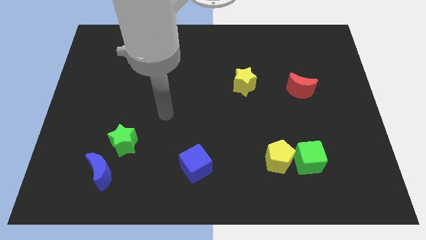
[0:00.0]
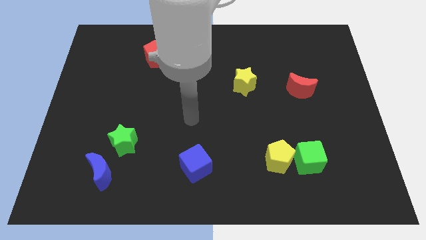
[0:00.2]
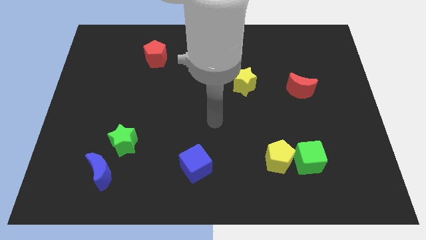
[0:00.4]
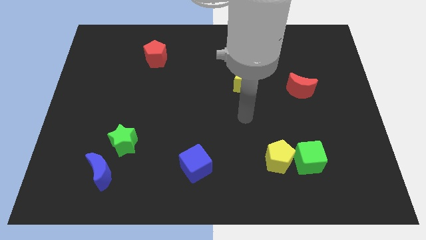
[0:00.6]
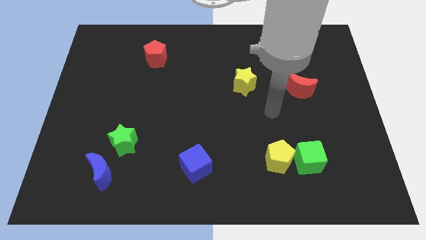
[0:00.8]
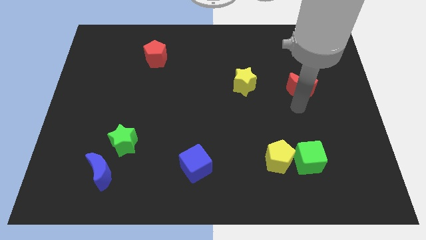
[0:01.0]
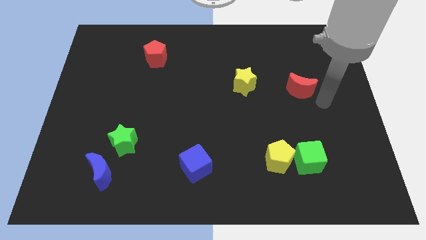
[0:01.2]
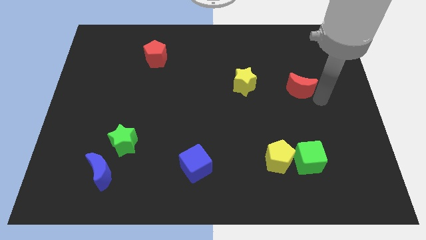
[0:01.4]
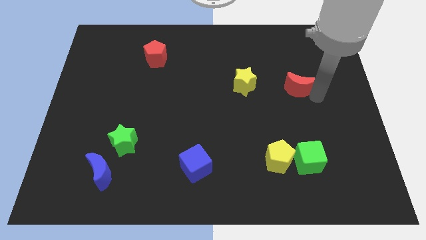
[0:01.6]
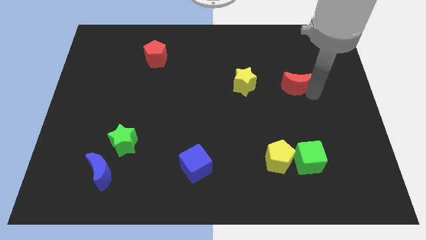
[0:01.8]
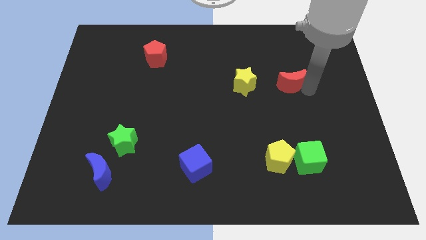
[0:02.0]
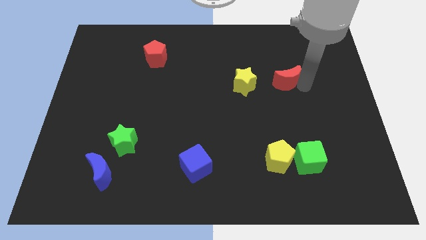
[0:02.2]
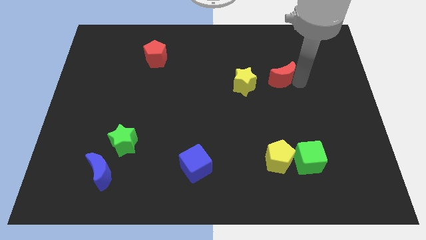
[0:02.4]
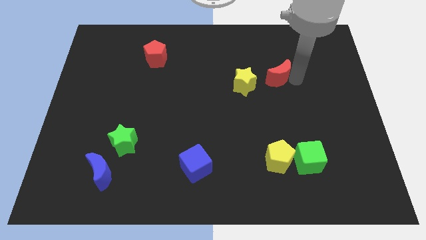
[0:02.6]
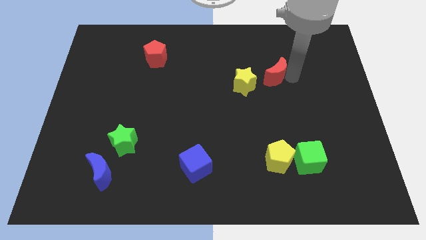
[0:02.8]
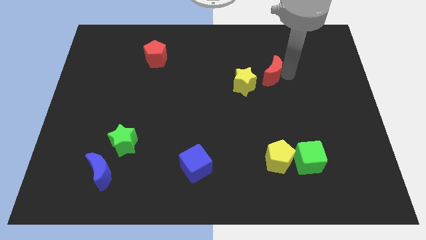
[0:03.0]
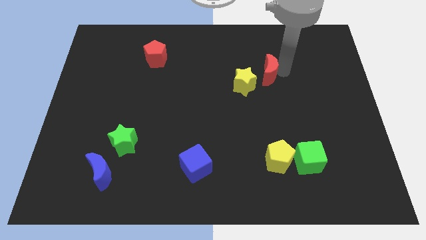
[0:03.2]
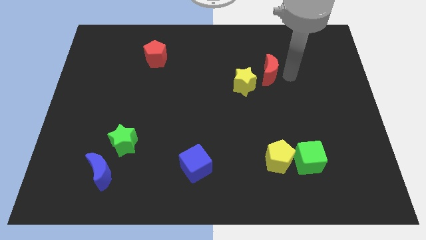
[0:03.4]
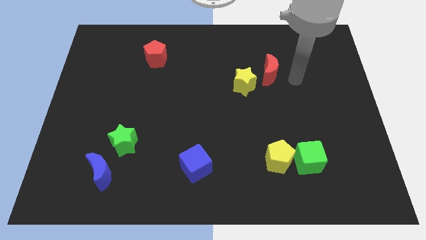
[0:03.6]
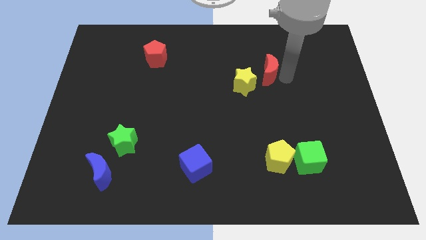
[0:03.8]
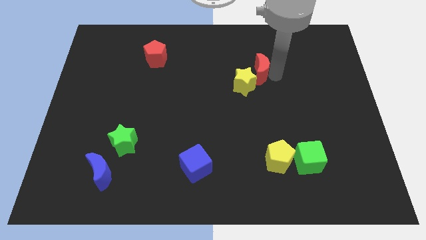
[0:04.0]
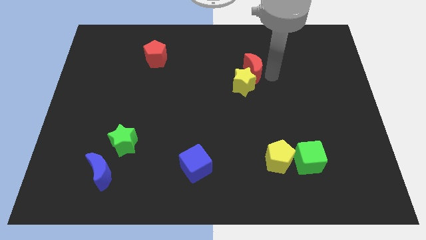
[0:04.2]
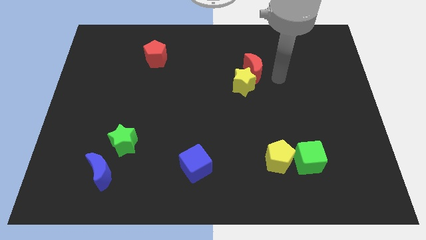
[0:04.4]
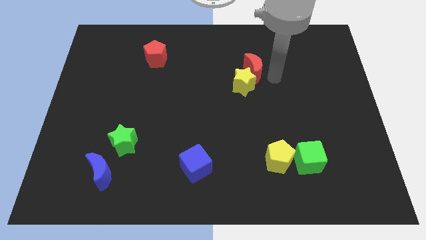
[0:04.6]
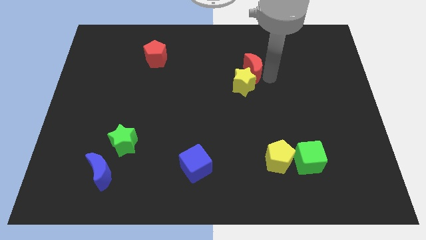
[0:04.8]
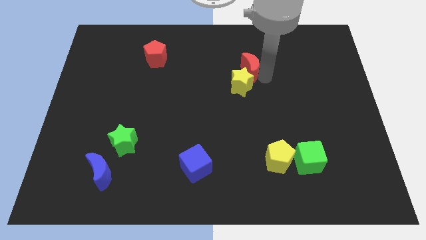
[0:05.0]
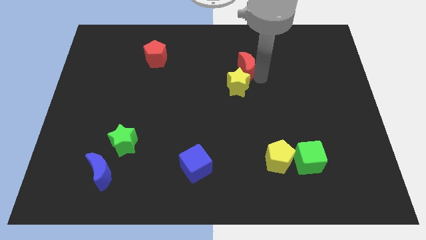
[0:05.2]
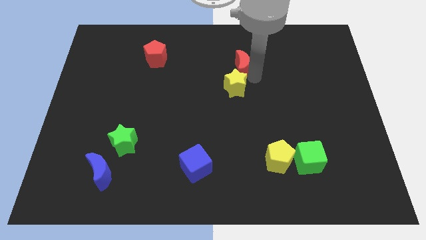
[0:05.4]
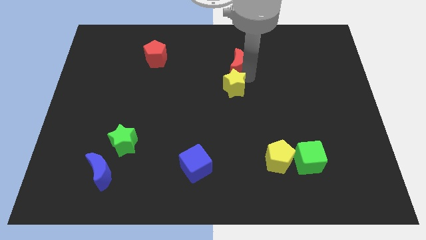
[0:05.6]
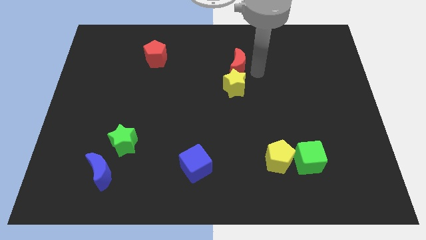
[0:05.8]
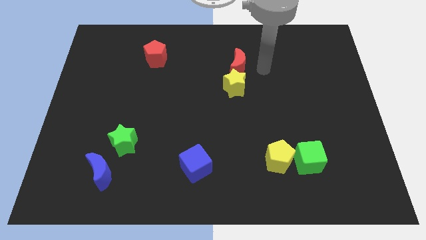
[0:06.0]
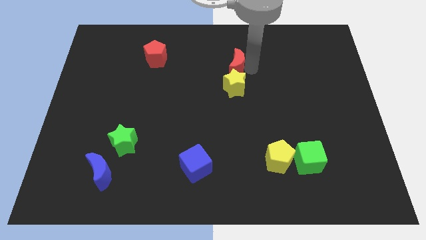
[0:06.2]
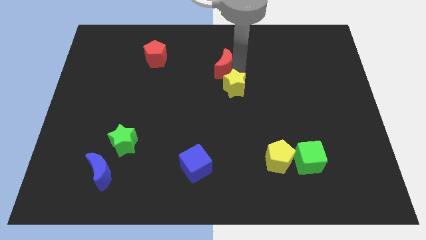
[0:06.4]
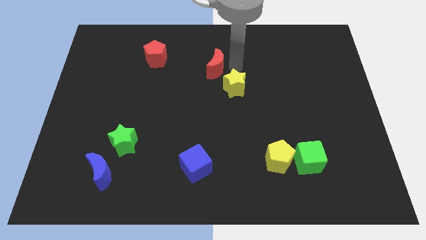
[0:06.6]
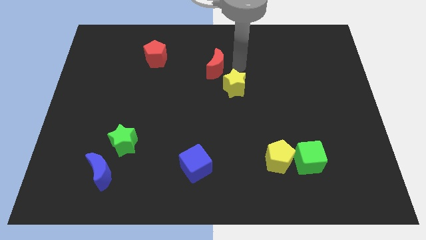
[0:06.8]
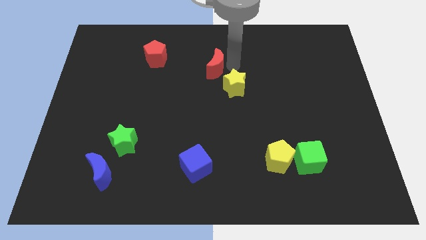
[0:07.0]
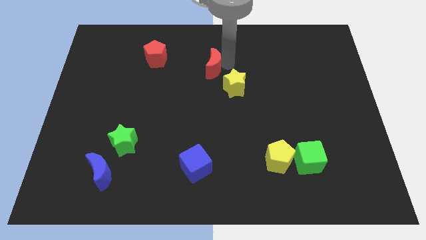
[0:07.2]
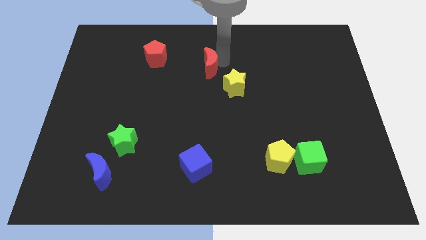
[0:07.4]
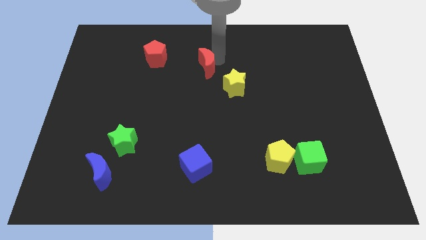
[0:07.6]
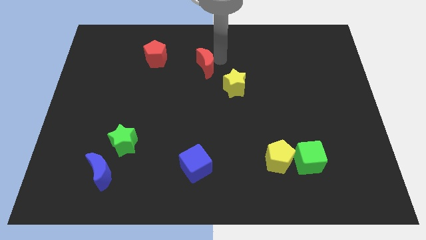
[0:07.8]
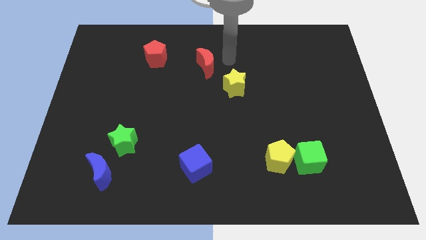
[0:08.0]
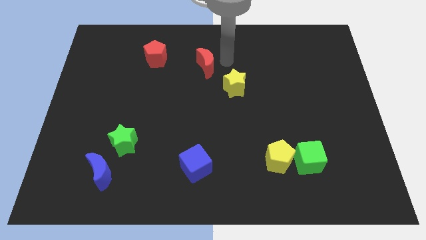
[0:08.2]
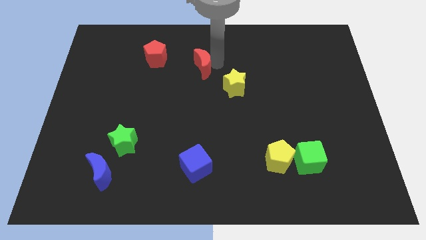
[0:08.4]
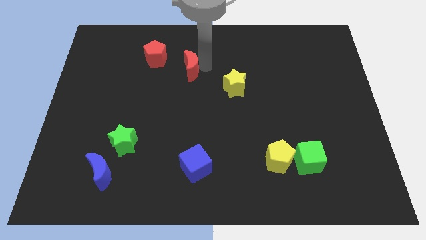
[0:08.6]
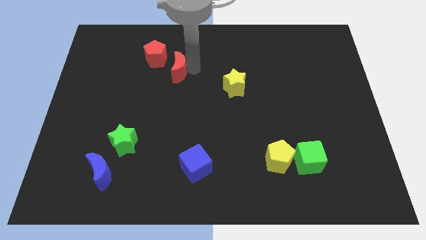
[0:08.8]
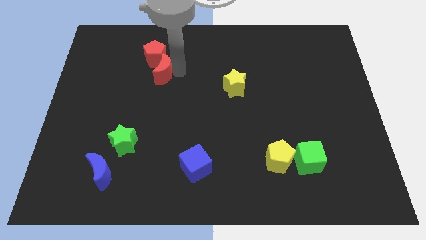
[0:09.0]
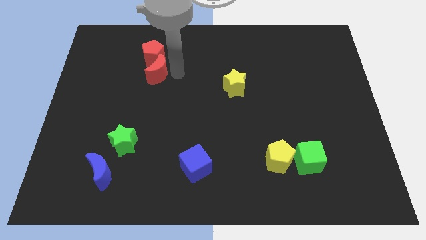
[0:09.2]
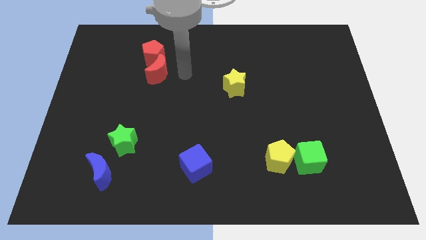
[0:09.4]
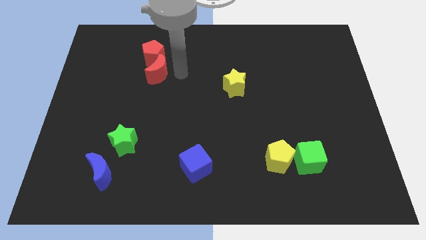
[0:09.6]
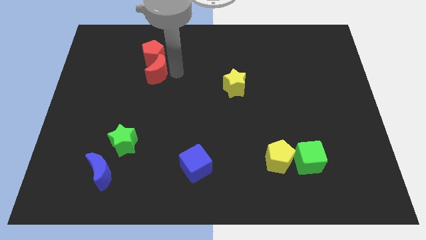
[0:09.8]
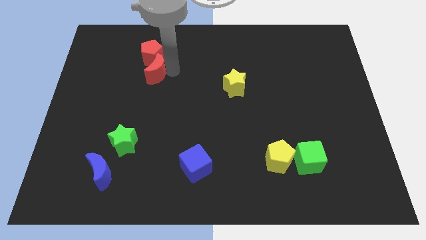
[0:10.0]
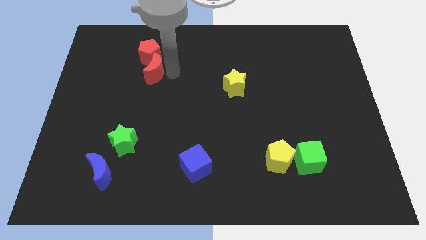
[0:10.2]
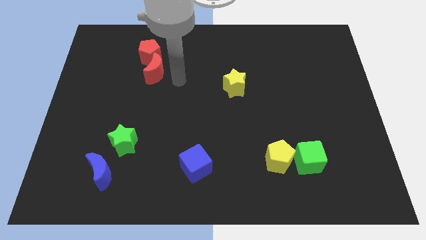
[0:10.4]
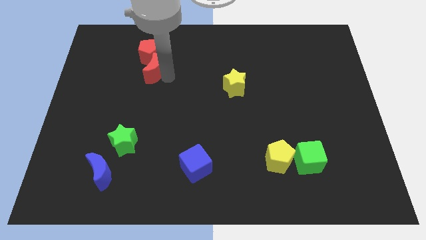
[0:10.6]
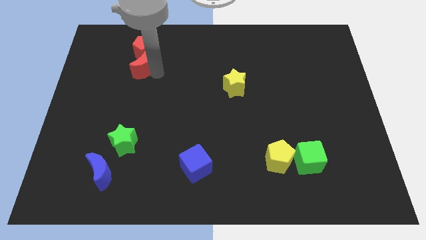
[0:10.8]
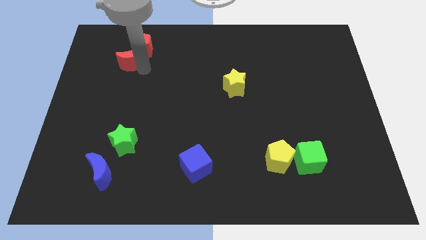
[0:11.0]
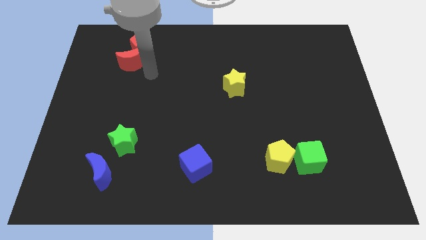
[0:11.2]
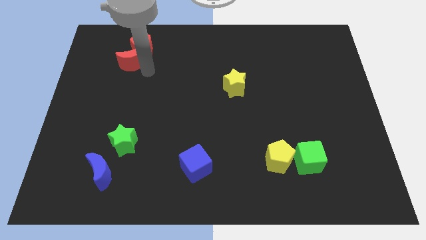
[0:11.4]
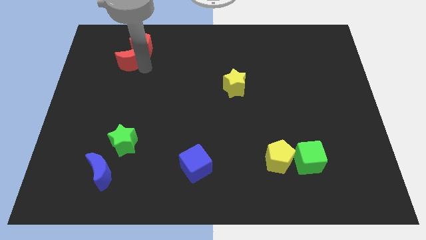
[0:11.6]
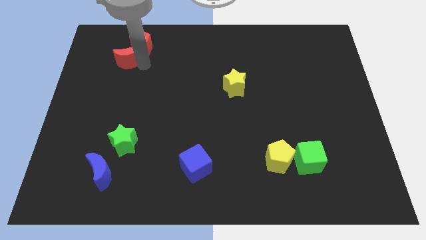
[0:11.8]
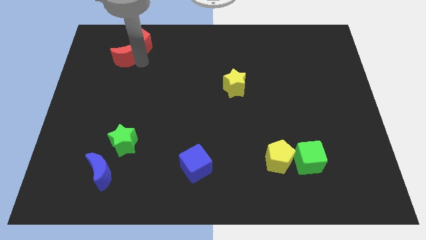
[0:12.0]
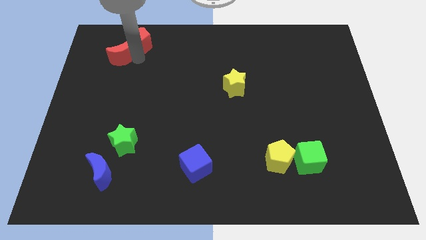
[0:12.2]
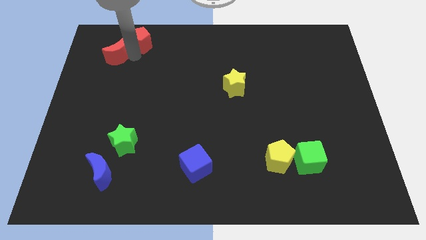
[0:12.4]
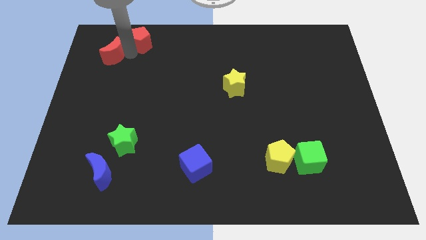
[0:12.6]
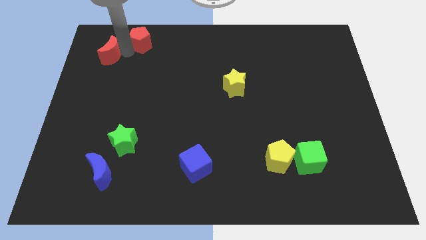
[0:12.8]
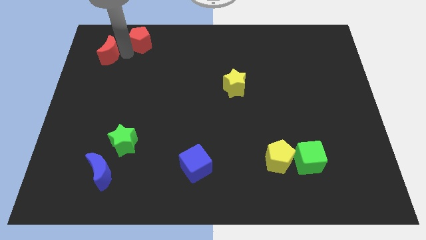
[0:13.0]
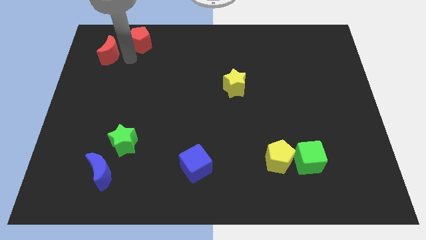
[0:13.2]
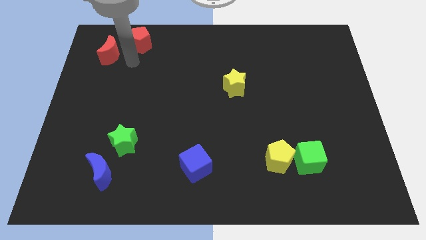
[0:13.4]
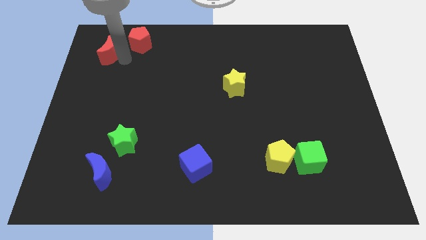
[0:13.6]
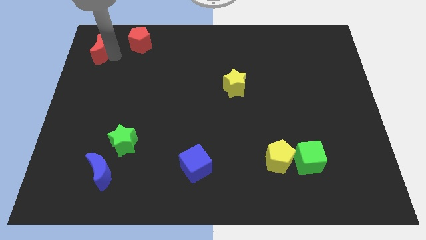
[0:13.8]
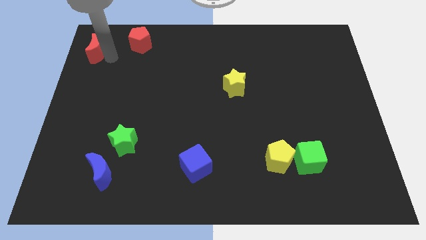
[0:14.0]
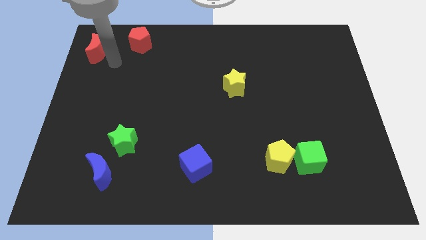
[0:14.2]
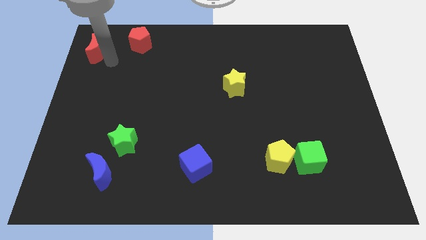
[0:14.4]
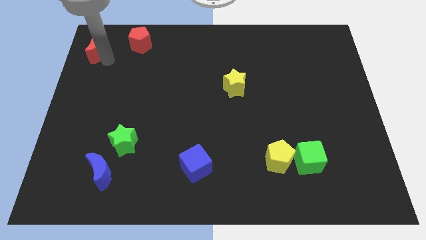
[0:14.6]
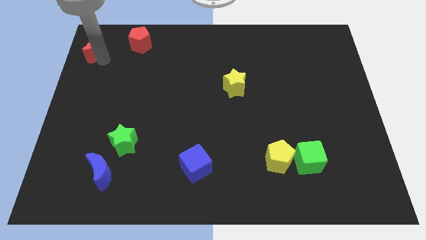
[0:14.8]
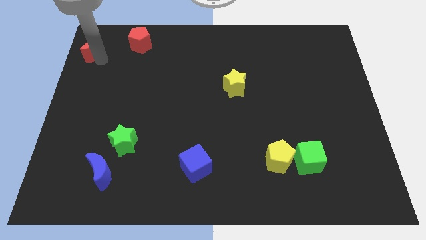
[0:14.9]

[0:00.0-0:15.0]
slide the red moon to the top left of the board
